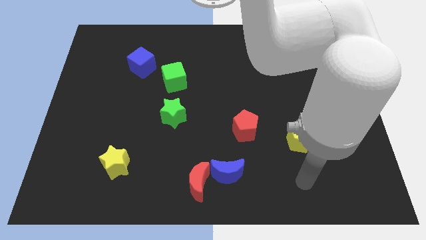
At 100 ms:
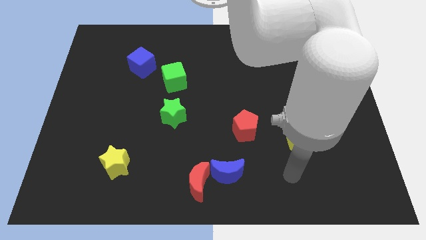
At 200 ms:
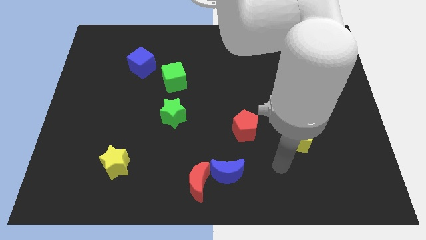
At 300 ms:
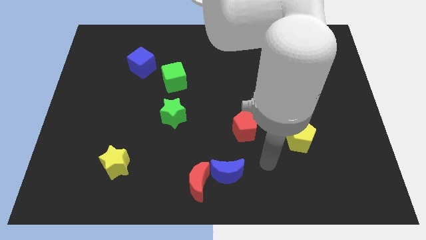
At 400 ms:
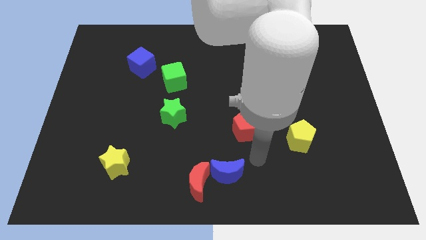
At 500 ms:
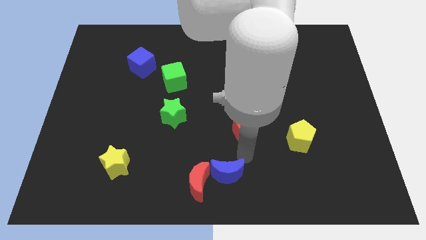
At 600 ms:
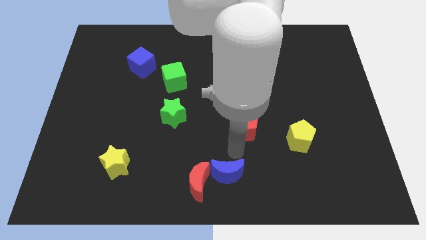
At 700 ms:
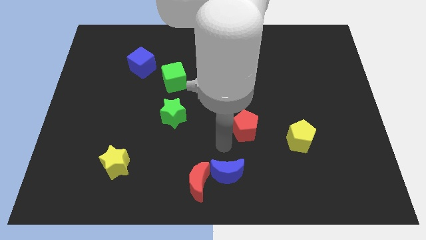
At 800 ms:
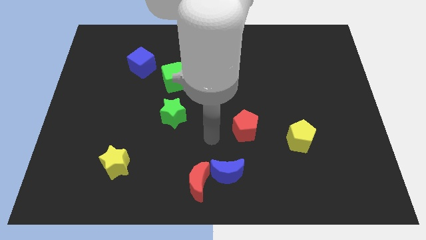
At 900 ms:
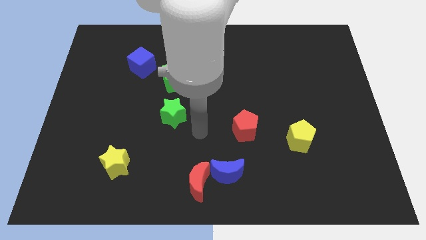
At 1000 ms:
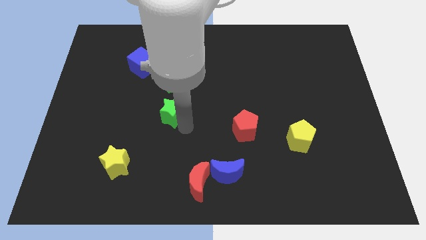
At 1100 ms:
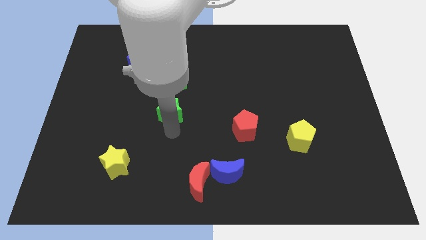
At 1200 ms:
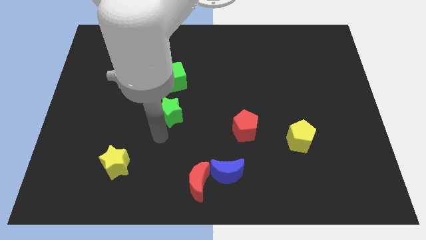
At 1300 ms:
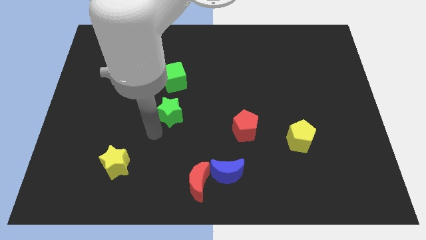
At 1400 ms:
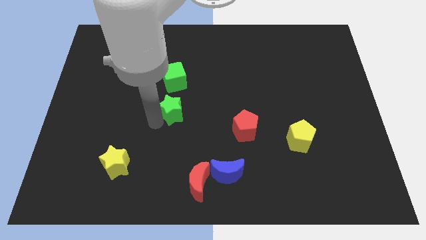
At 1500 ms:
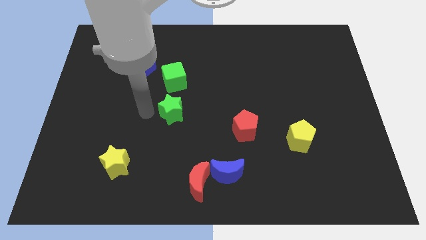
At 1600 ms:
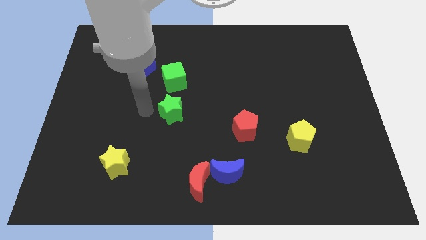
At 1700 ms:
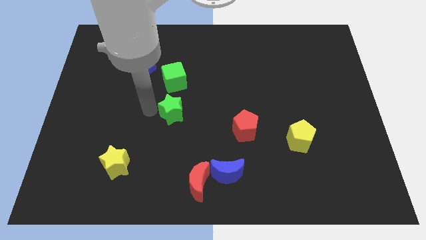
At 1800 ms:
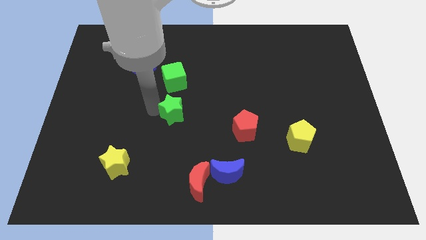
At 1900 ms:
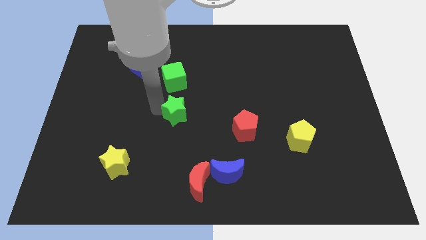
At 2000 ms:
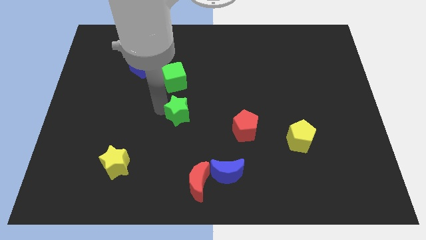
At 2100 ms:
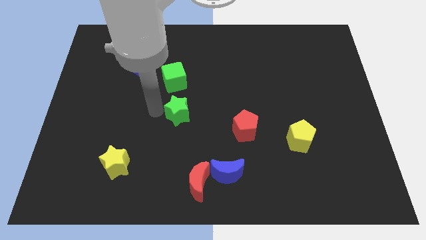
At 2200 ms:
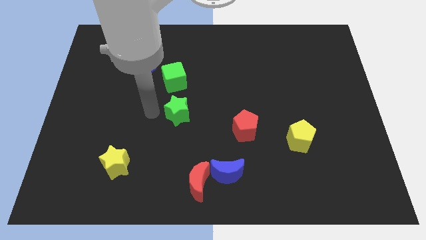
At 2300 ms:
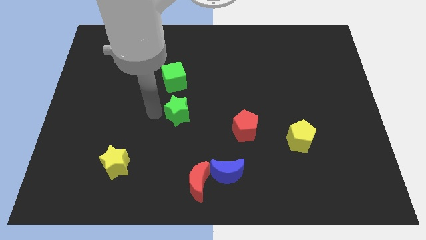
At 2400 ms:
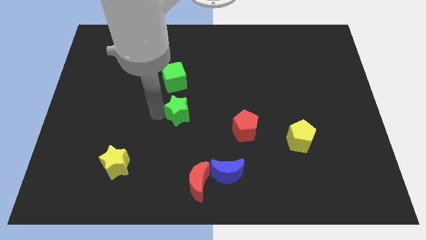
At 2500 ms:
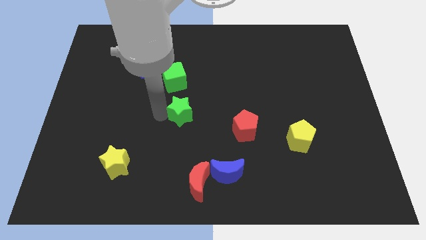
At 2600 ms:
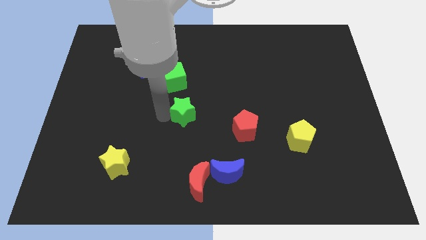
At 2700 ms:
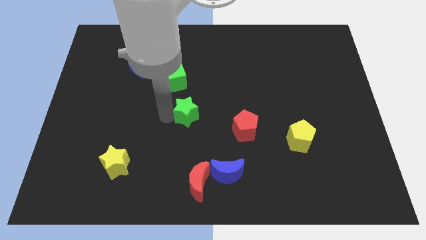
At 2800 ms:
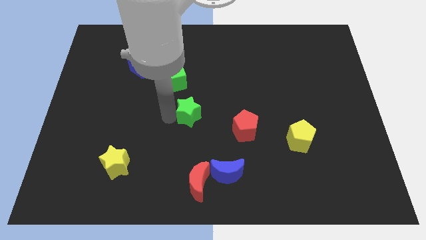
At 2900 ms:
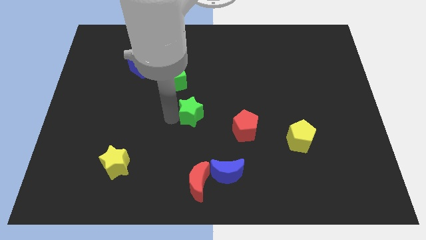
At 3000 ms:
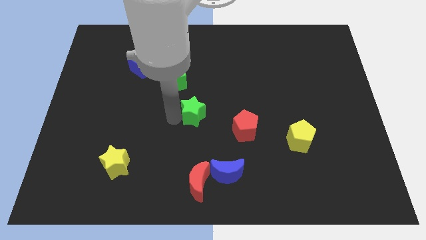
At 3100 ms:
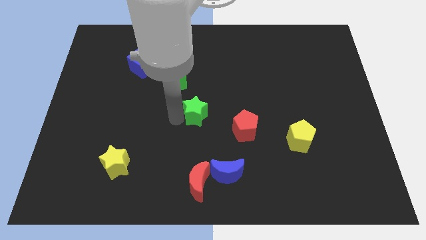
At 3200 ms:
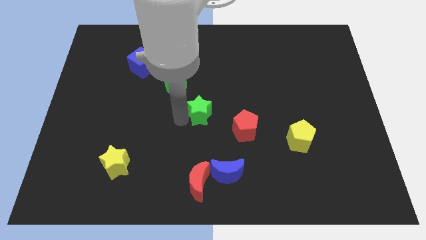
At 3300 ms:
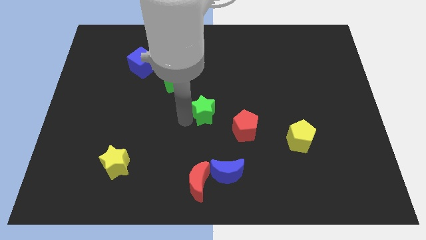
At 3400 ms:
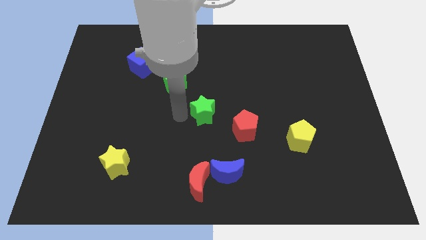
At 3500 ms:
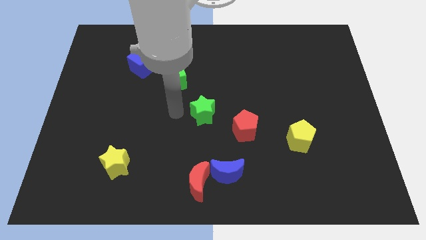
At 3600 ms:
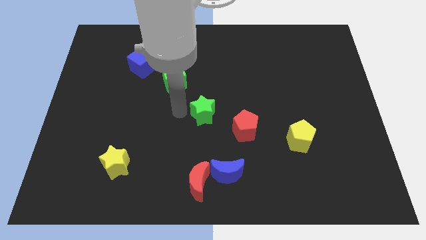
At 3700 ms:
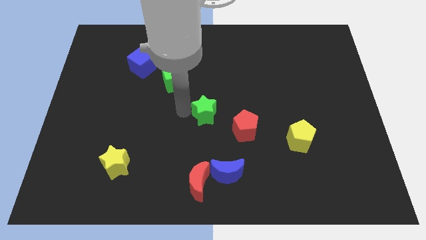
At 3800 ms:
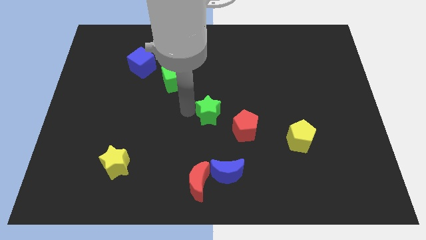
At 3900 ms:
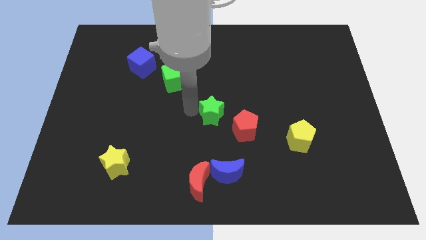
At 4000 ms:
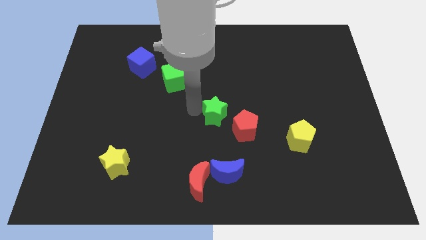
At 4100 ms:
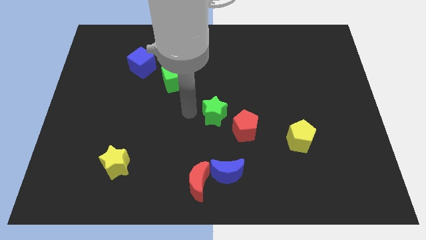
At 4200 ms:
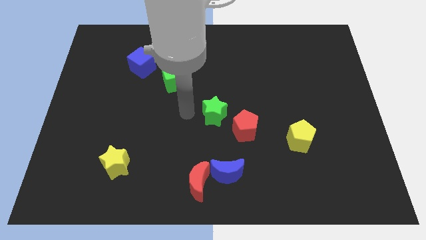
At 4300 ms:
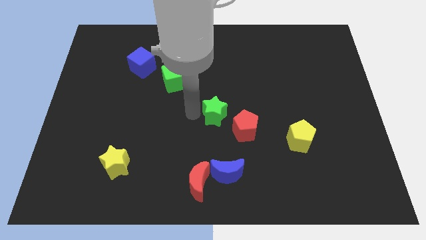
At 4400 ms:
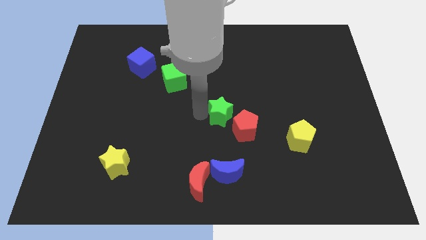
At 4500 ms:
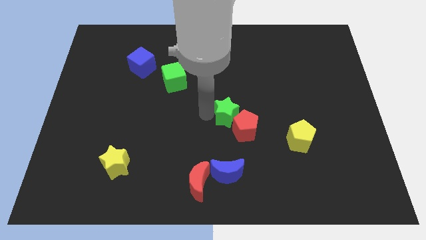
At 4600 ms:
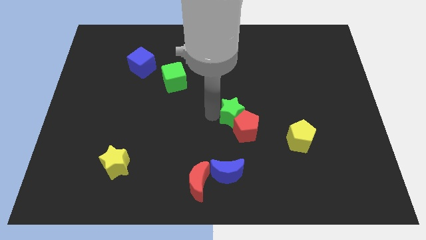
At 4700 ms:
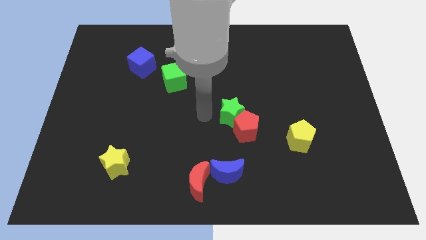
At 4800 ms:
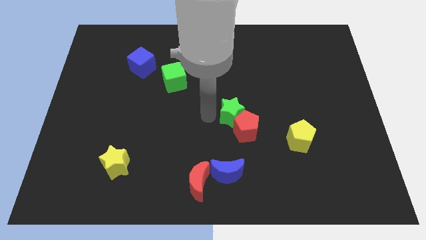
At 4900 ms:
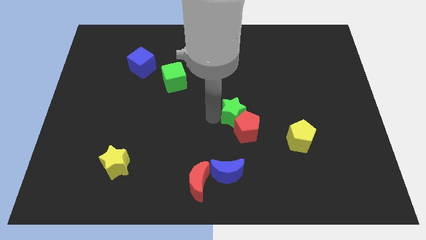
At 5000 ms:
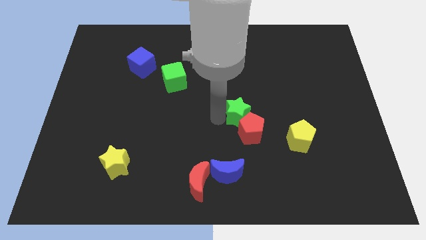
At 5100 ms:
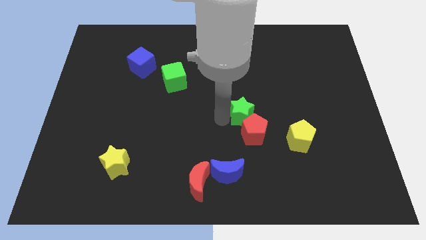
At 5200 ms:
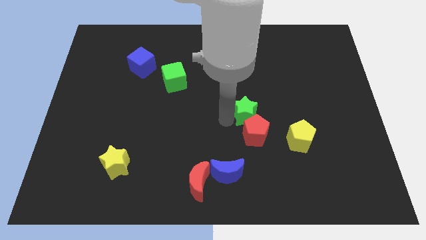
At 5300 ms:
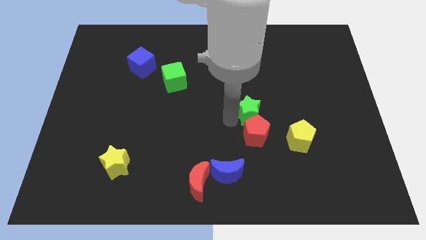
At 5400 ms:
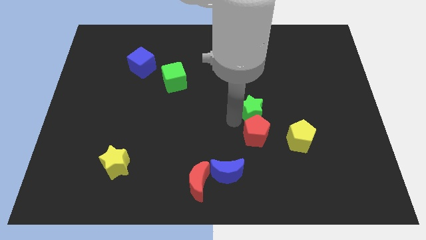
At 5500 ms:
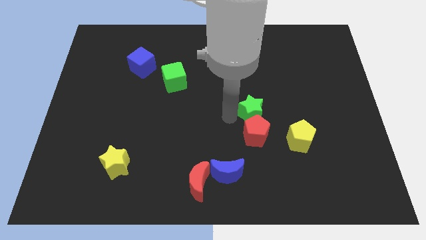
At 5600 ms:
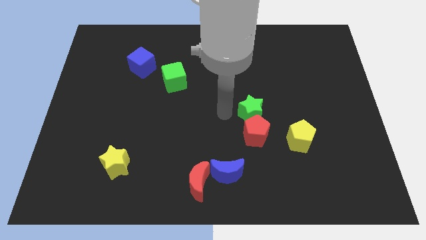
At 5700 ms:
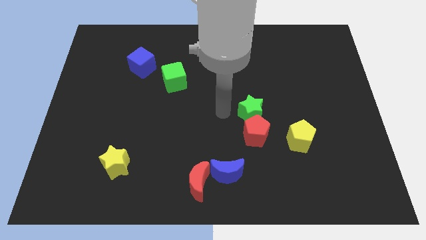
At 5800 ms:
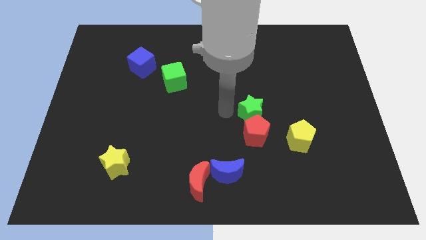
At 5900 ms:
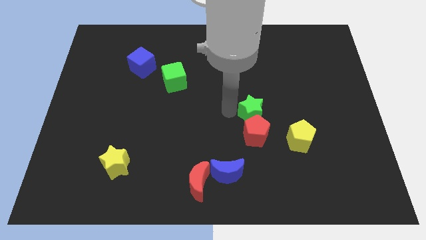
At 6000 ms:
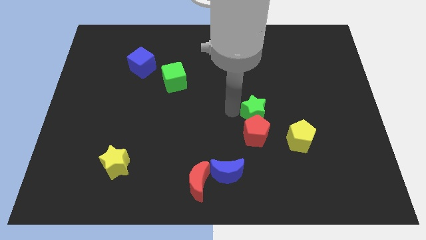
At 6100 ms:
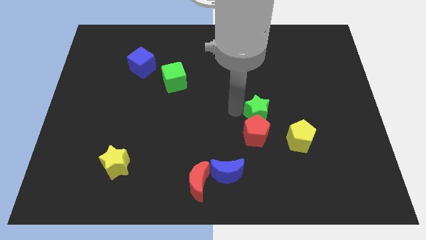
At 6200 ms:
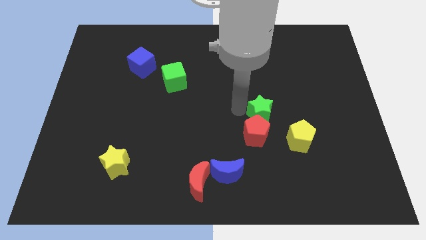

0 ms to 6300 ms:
slide the green star to the right

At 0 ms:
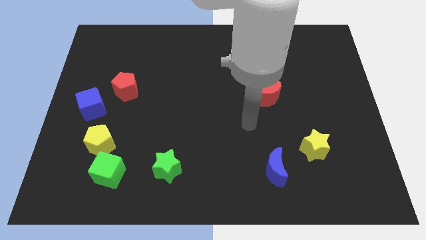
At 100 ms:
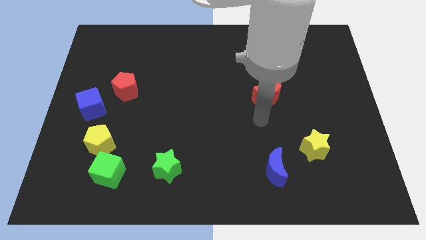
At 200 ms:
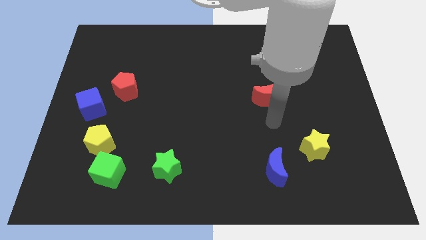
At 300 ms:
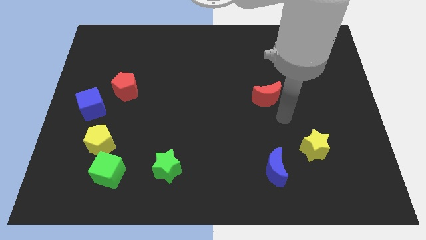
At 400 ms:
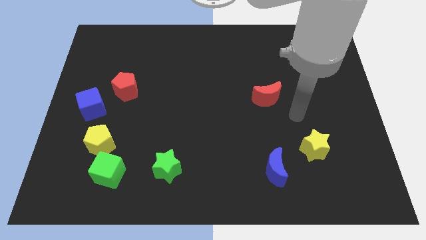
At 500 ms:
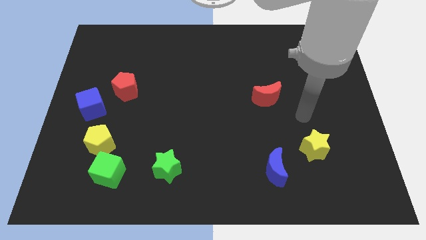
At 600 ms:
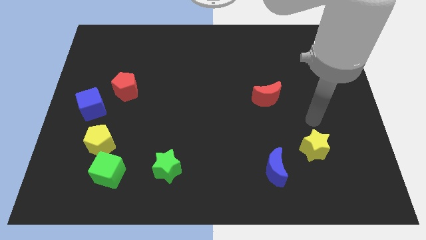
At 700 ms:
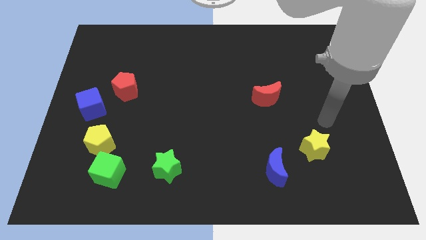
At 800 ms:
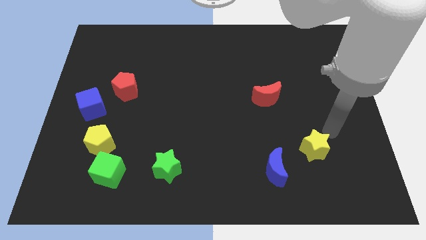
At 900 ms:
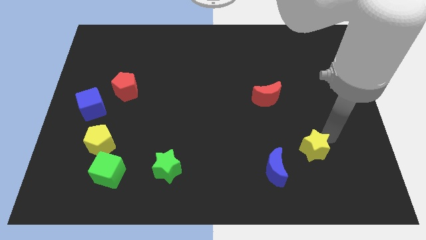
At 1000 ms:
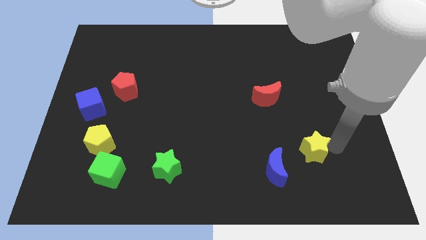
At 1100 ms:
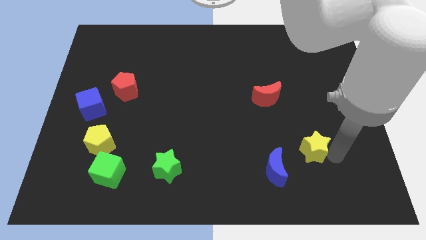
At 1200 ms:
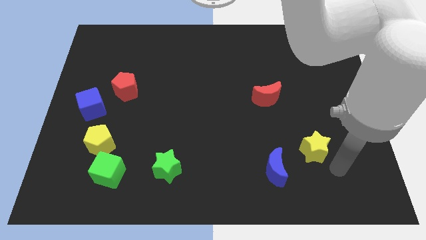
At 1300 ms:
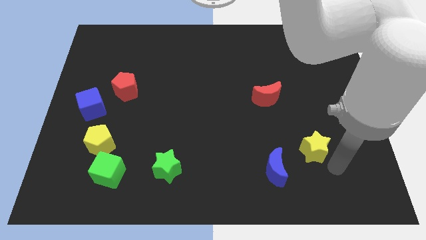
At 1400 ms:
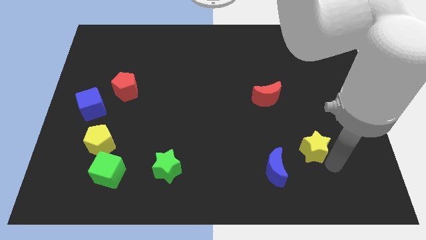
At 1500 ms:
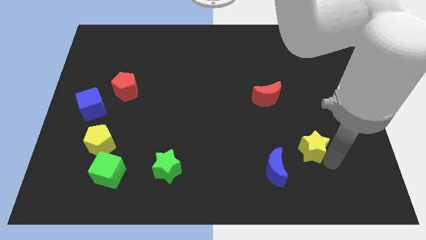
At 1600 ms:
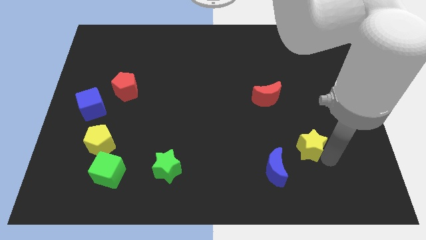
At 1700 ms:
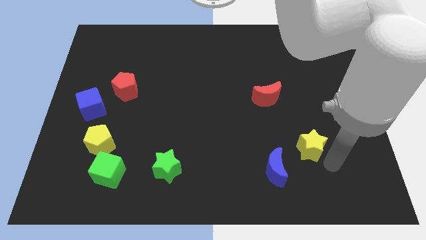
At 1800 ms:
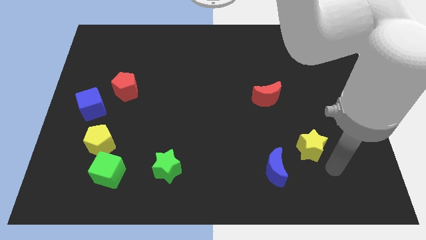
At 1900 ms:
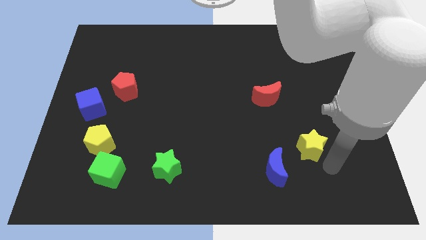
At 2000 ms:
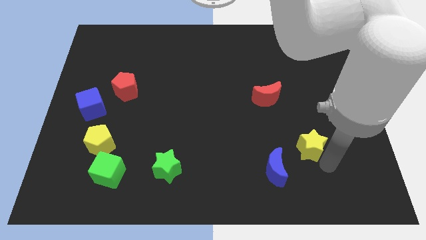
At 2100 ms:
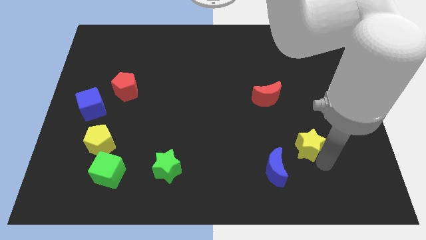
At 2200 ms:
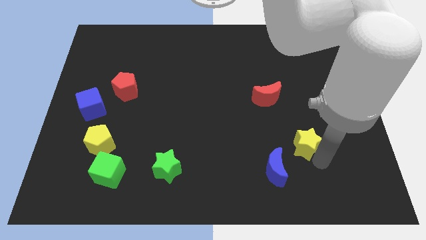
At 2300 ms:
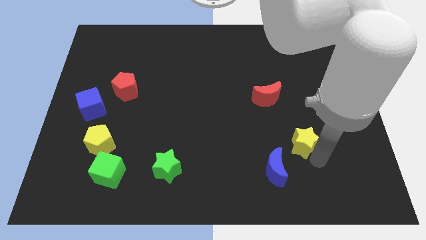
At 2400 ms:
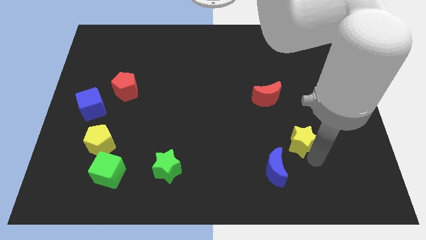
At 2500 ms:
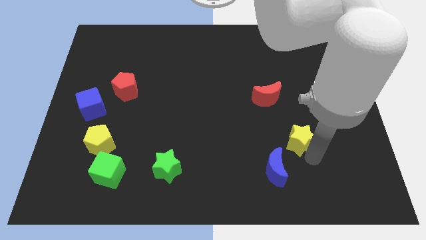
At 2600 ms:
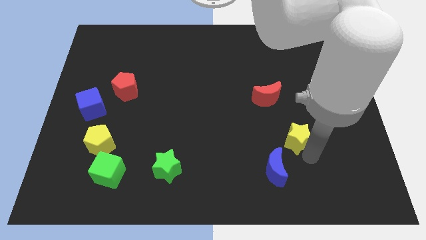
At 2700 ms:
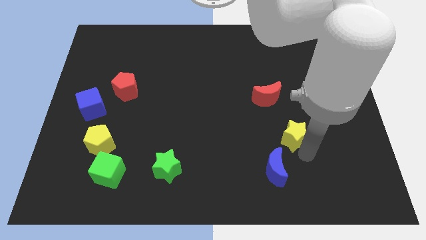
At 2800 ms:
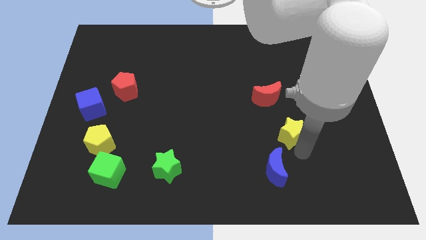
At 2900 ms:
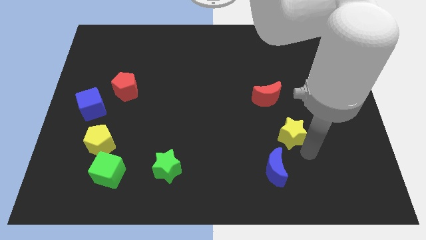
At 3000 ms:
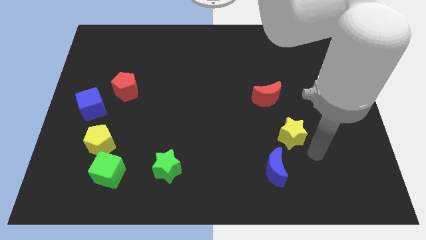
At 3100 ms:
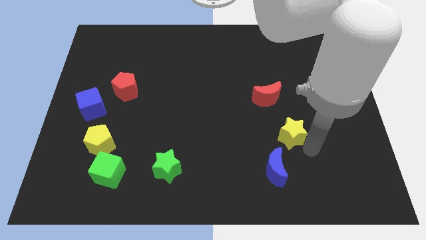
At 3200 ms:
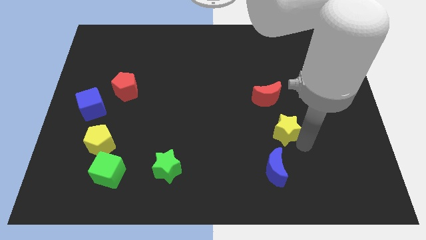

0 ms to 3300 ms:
push the yellow star a little up and then left
